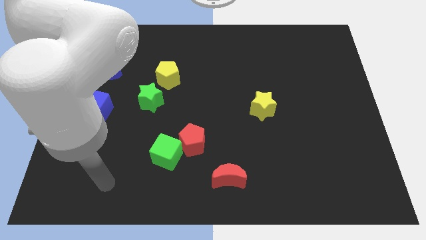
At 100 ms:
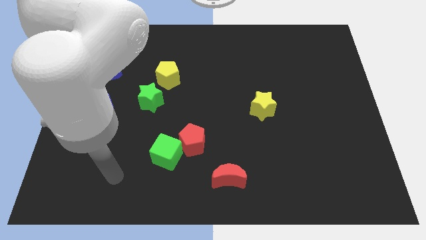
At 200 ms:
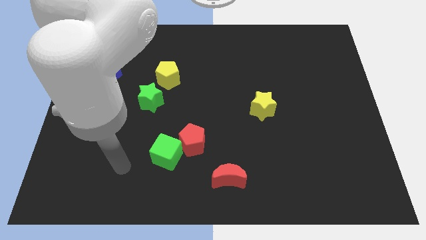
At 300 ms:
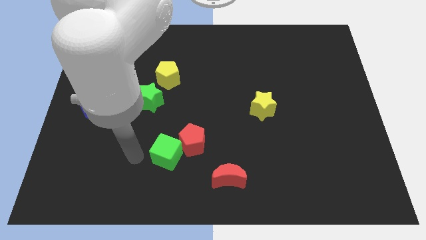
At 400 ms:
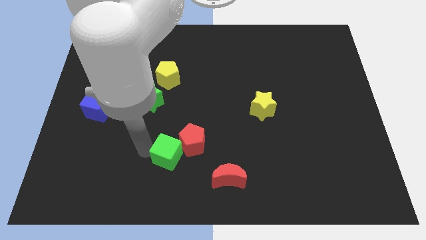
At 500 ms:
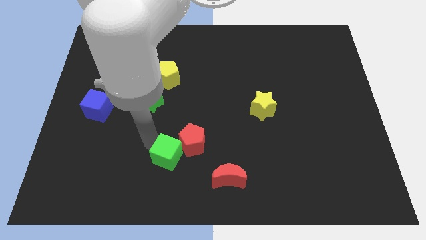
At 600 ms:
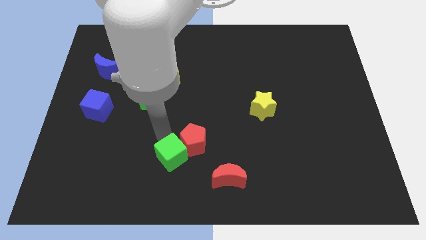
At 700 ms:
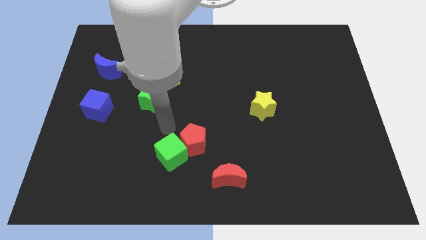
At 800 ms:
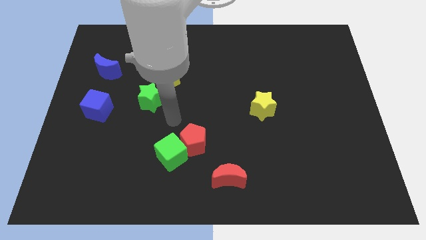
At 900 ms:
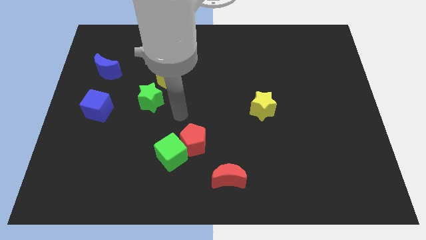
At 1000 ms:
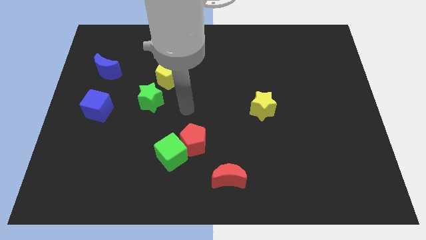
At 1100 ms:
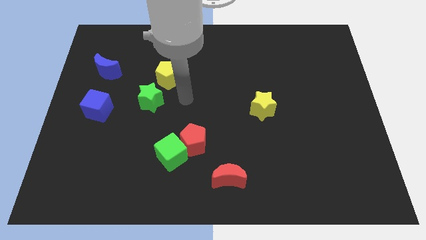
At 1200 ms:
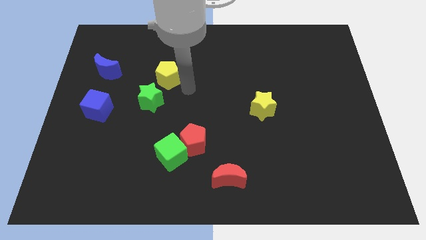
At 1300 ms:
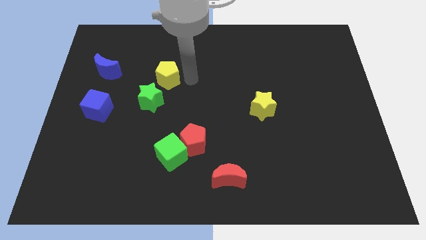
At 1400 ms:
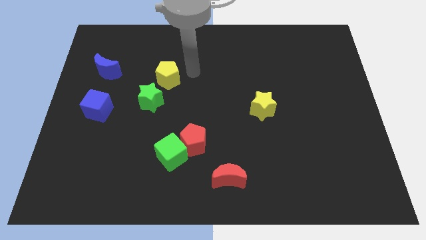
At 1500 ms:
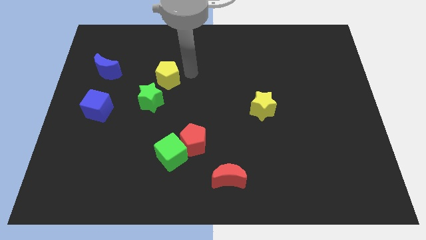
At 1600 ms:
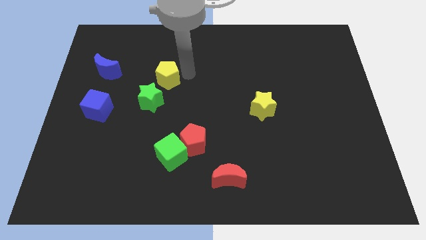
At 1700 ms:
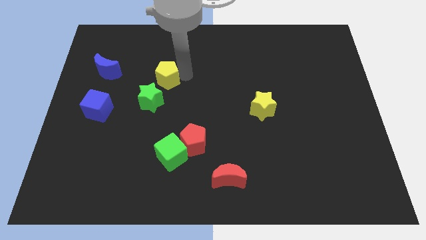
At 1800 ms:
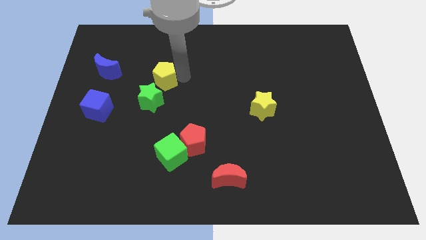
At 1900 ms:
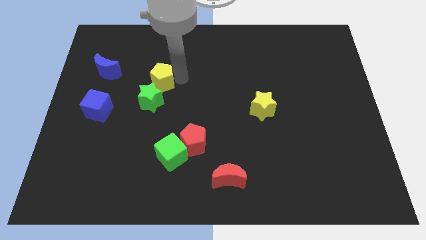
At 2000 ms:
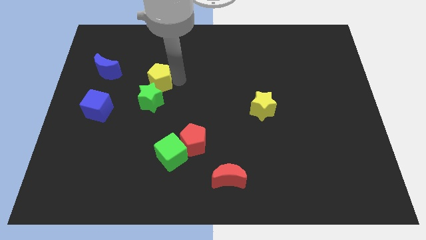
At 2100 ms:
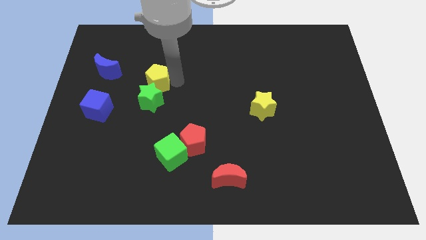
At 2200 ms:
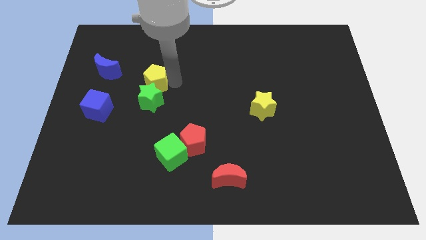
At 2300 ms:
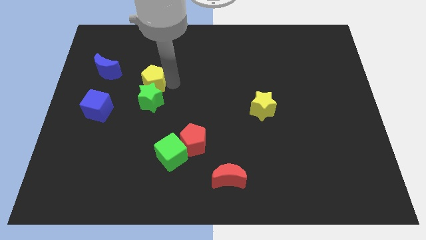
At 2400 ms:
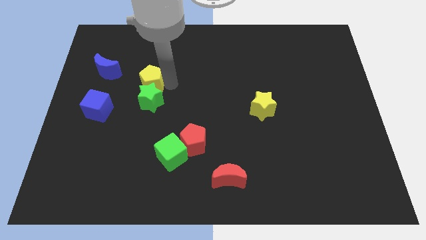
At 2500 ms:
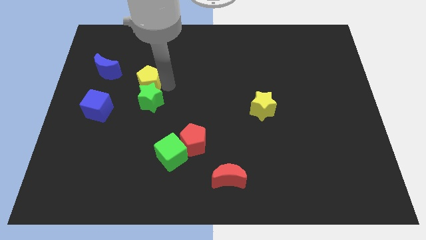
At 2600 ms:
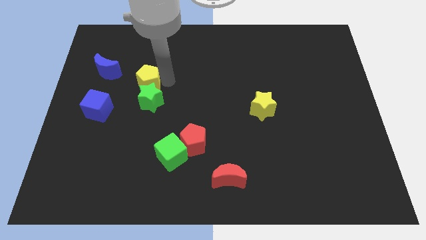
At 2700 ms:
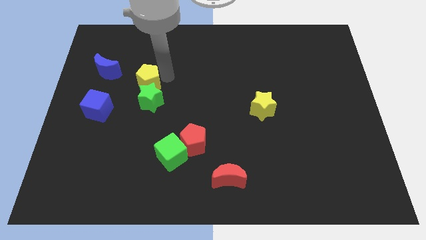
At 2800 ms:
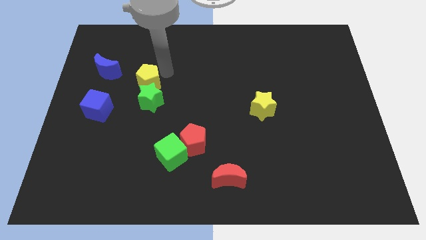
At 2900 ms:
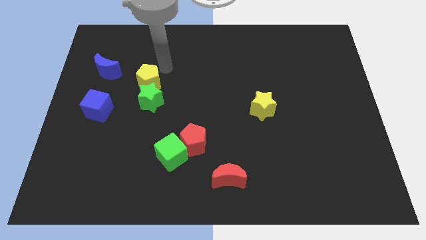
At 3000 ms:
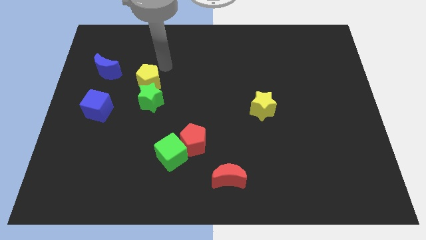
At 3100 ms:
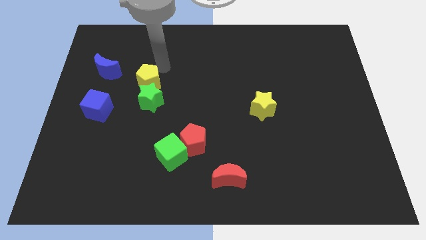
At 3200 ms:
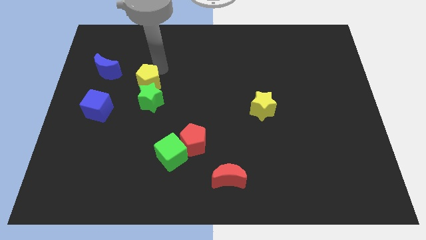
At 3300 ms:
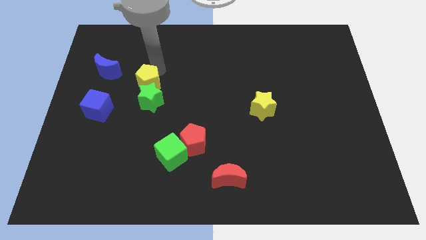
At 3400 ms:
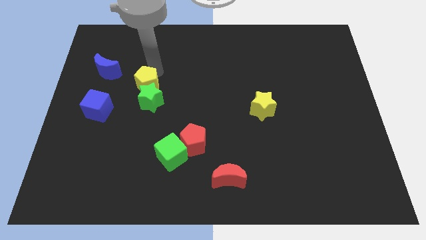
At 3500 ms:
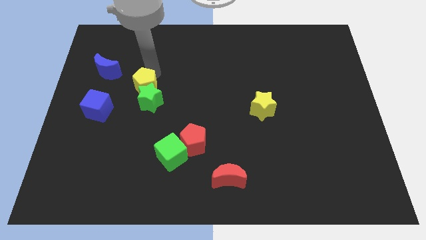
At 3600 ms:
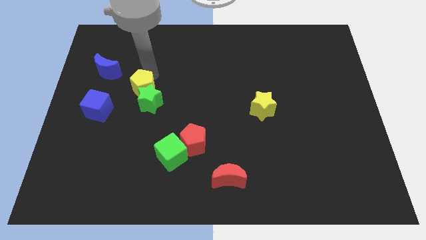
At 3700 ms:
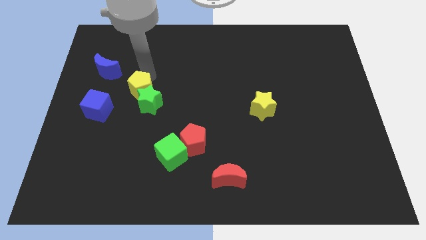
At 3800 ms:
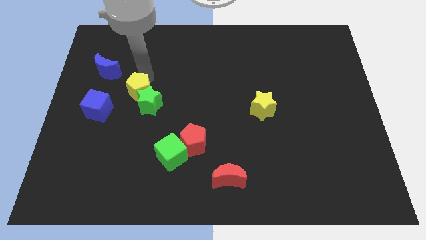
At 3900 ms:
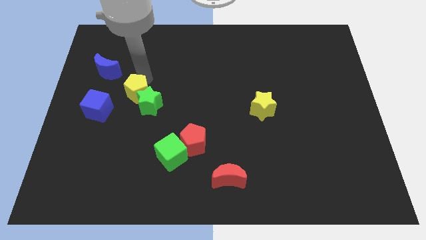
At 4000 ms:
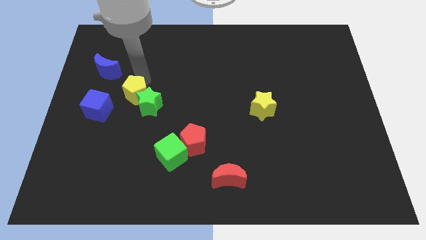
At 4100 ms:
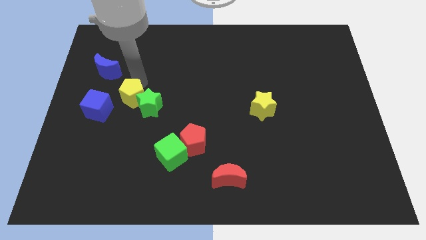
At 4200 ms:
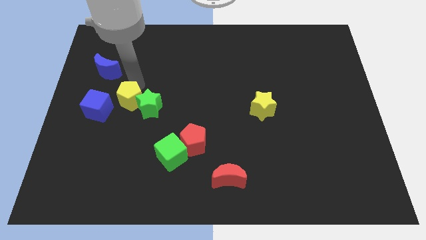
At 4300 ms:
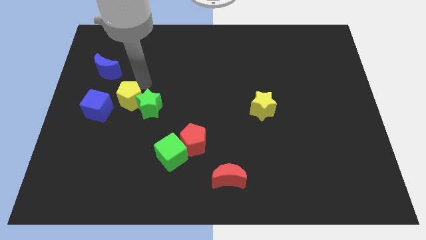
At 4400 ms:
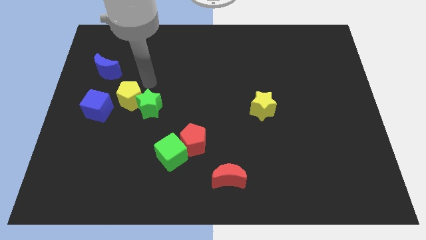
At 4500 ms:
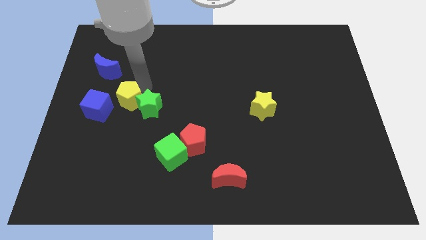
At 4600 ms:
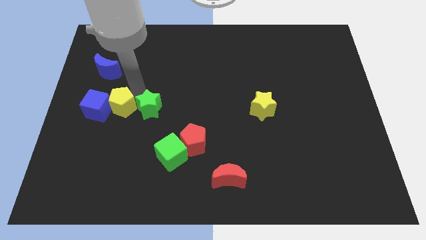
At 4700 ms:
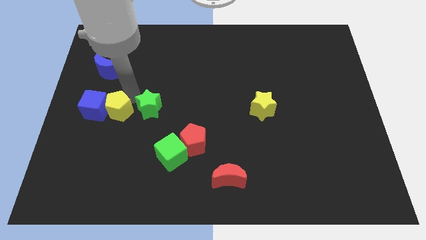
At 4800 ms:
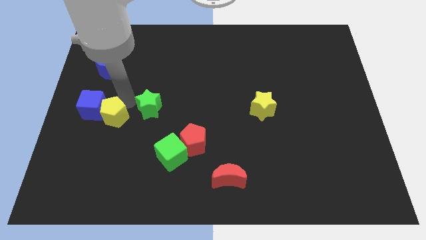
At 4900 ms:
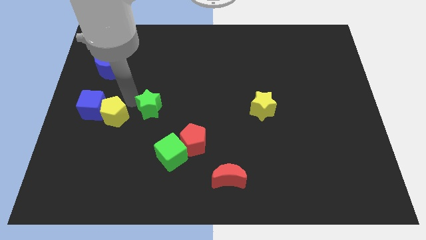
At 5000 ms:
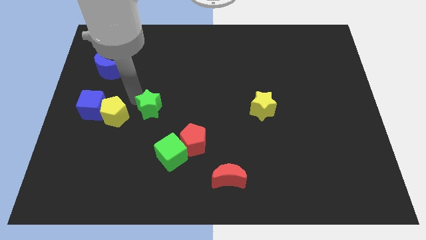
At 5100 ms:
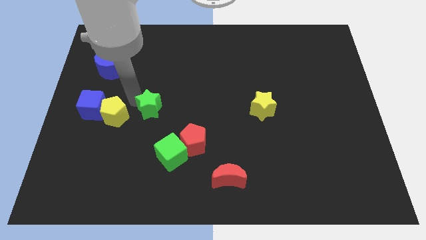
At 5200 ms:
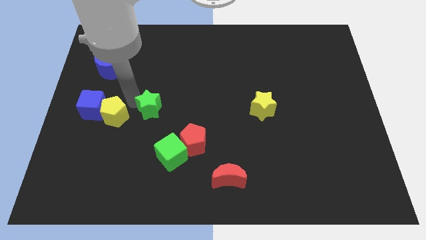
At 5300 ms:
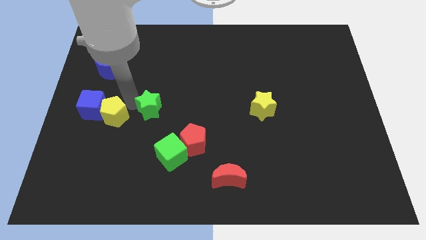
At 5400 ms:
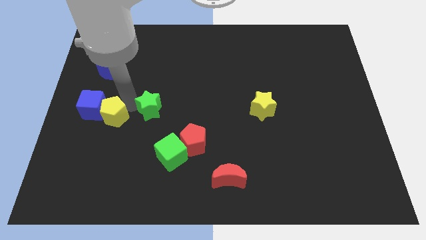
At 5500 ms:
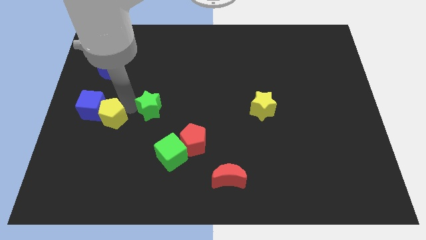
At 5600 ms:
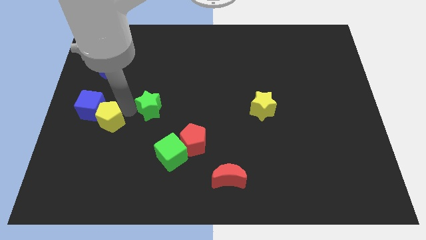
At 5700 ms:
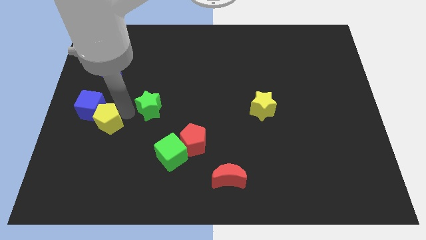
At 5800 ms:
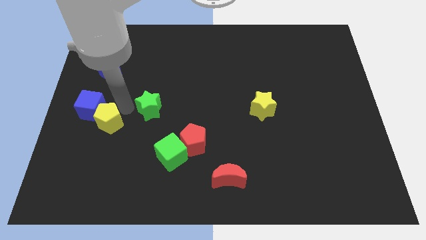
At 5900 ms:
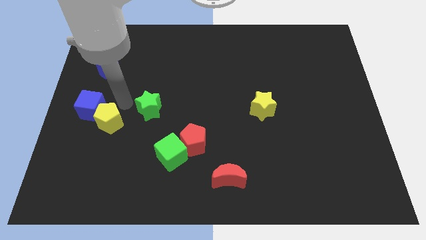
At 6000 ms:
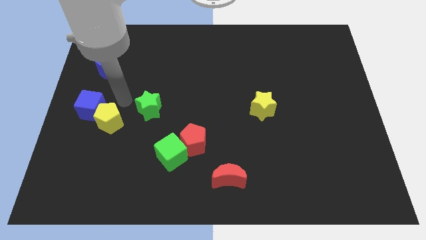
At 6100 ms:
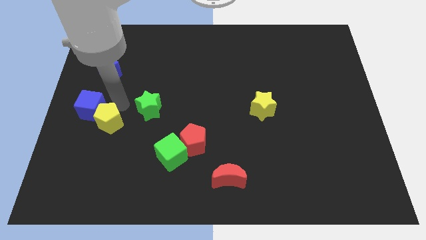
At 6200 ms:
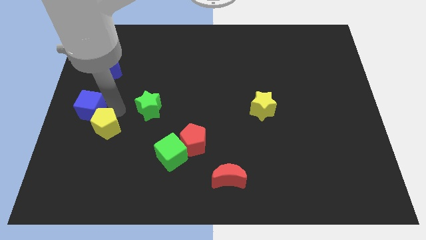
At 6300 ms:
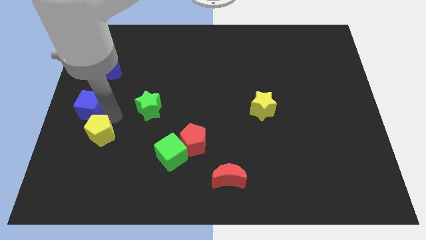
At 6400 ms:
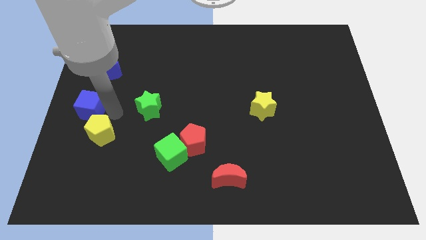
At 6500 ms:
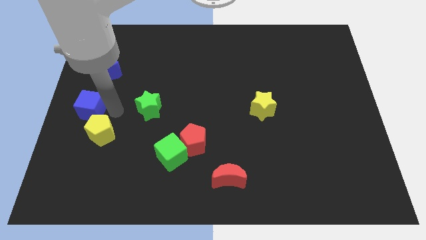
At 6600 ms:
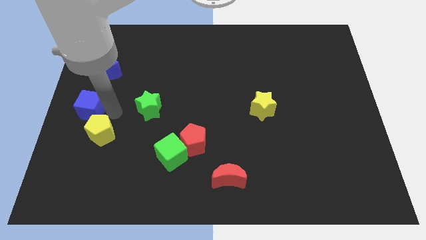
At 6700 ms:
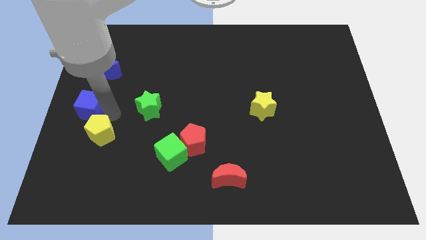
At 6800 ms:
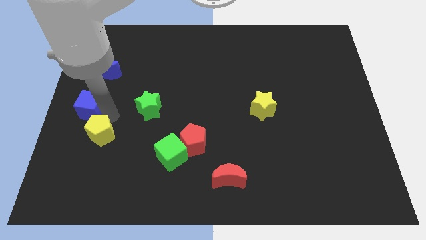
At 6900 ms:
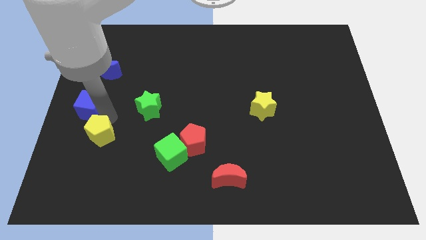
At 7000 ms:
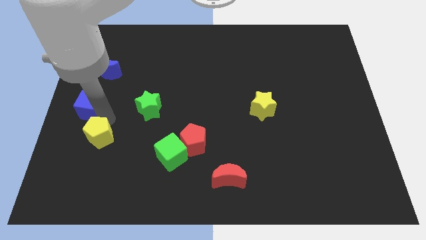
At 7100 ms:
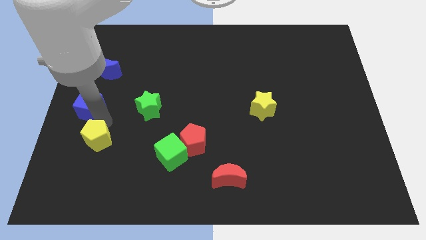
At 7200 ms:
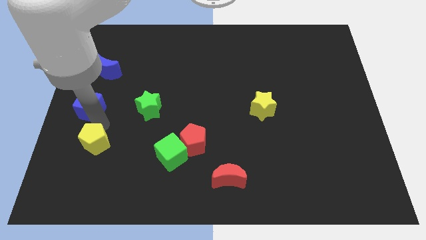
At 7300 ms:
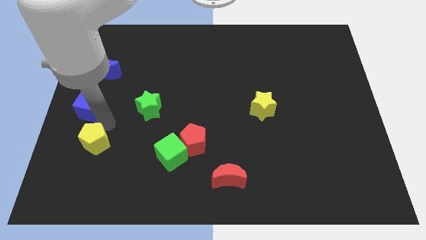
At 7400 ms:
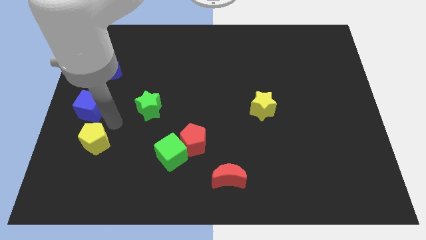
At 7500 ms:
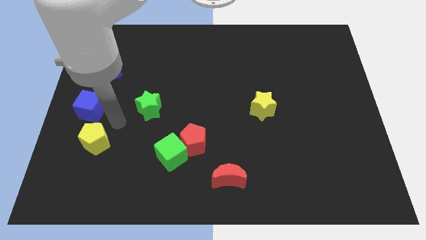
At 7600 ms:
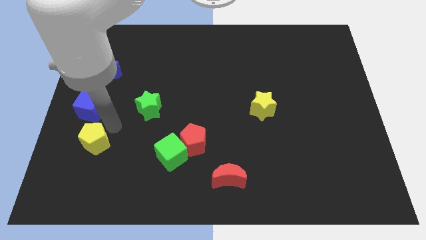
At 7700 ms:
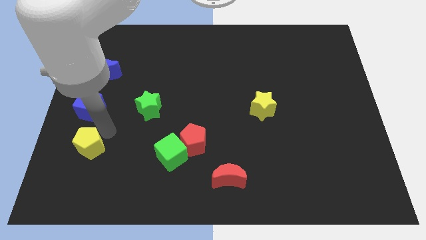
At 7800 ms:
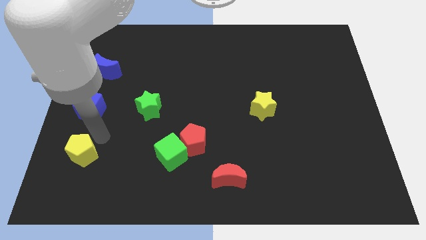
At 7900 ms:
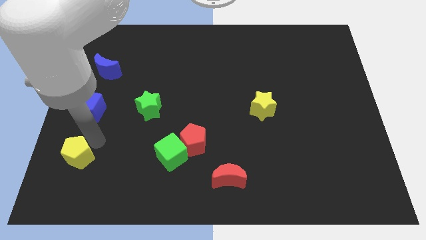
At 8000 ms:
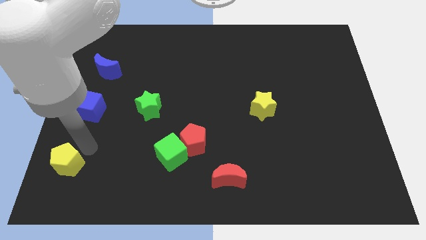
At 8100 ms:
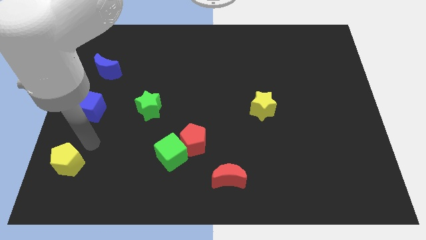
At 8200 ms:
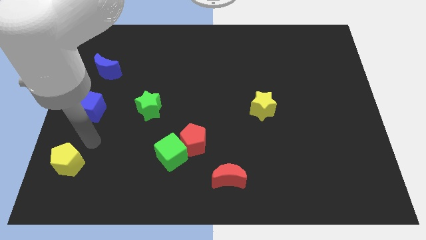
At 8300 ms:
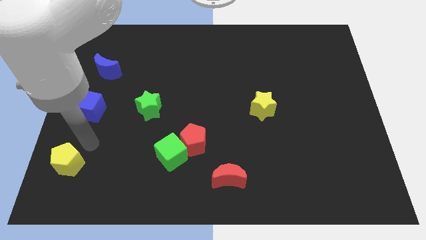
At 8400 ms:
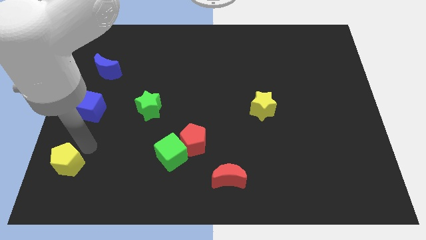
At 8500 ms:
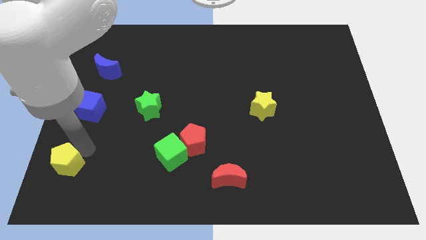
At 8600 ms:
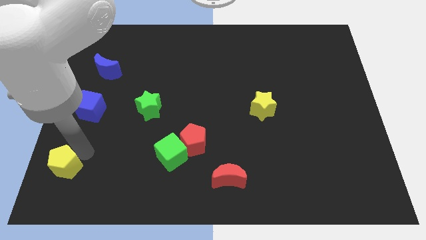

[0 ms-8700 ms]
slide the yellow pentagon to the bottom left
